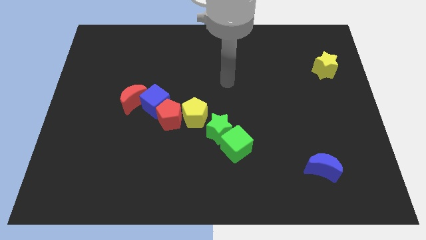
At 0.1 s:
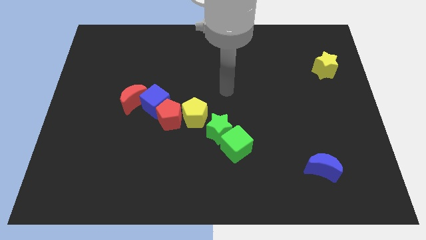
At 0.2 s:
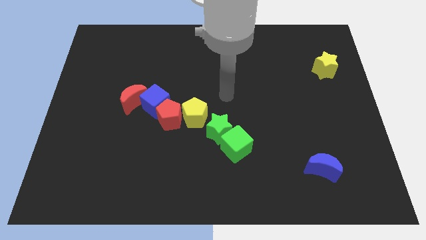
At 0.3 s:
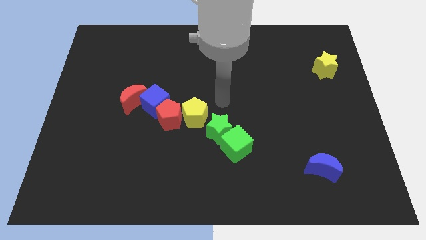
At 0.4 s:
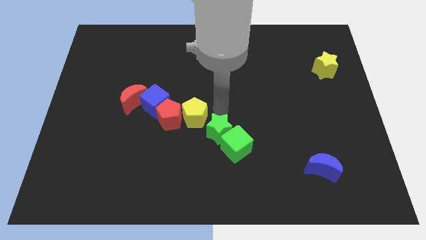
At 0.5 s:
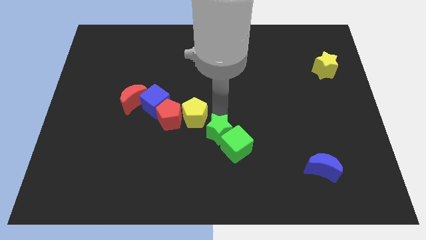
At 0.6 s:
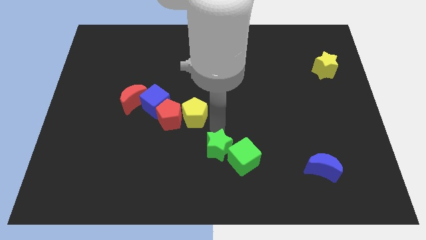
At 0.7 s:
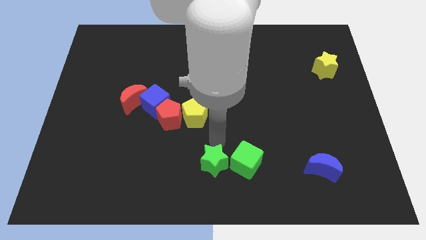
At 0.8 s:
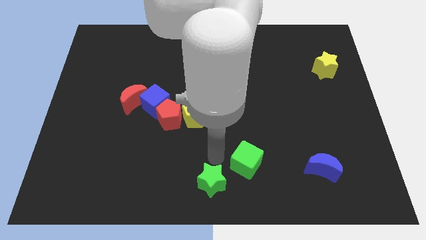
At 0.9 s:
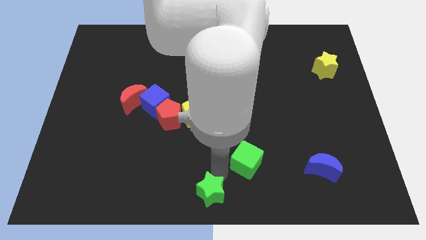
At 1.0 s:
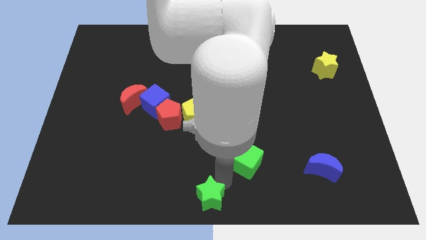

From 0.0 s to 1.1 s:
pull the green cube apart from the green star

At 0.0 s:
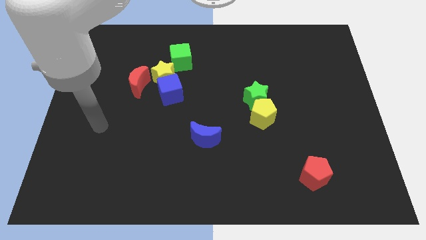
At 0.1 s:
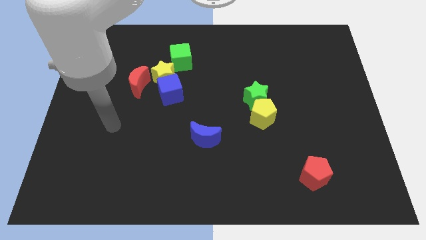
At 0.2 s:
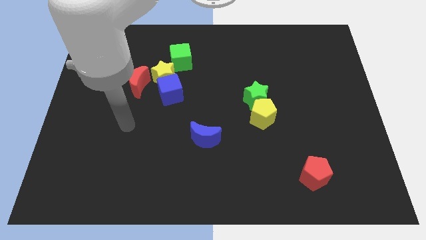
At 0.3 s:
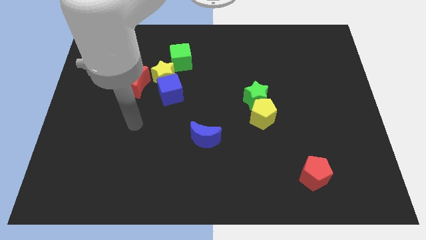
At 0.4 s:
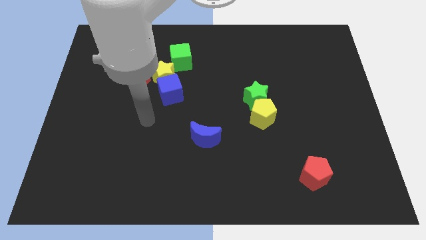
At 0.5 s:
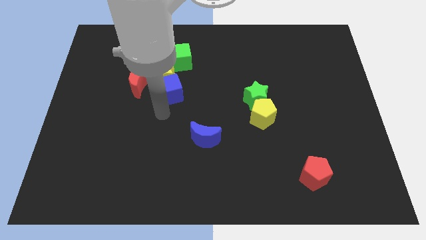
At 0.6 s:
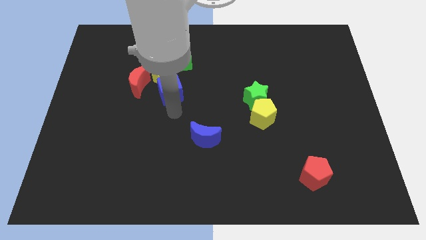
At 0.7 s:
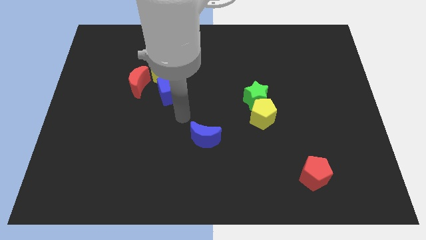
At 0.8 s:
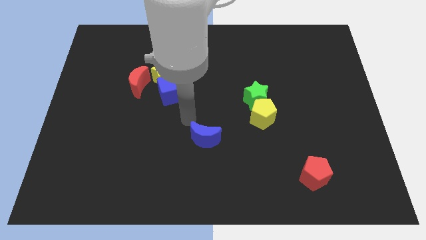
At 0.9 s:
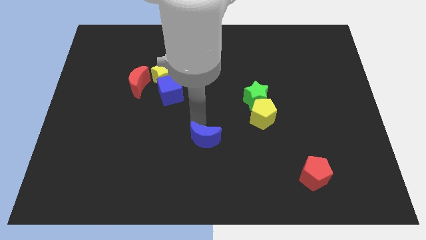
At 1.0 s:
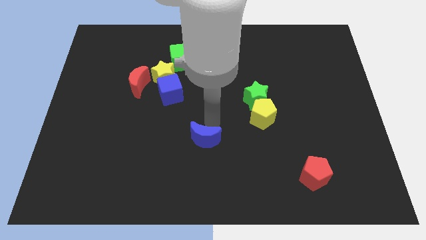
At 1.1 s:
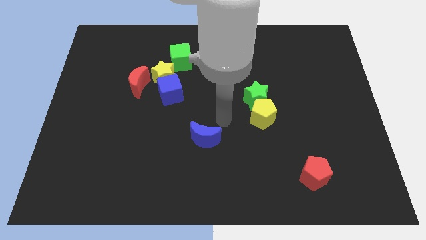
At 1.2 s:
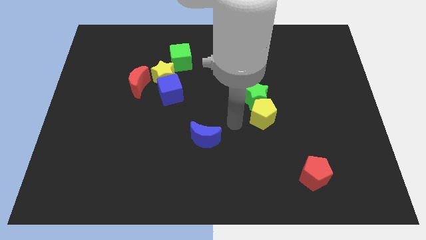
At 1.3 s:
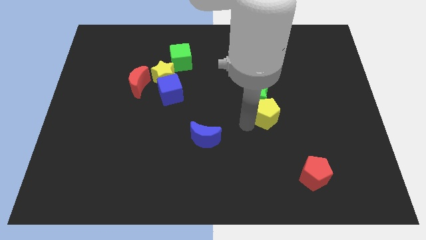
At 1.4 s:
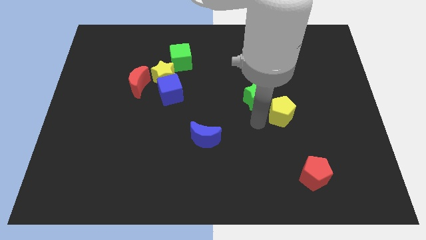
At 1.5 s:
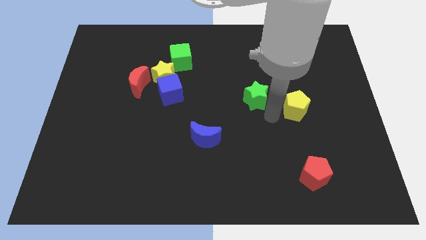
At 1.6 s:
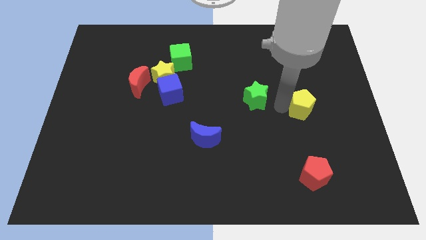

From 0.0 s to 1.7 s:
pull the green star apart from the yellow pentagon

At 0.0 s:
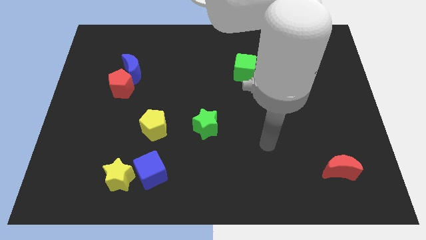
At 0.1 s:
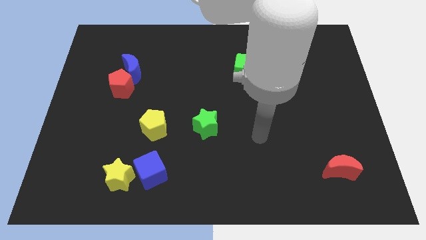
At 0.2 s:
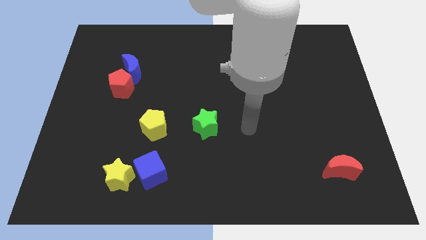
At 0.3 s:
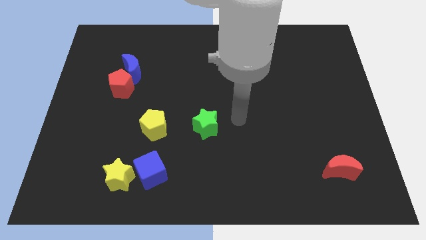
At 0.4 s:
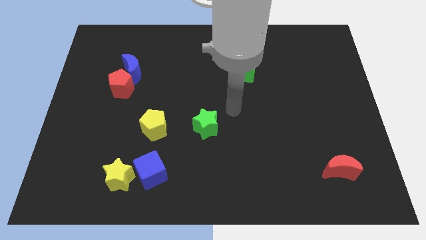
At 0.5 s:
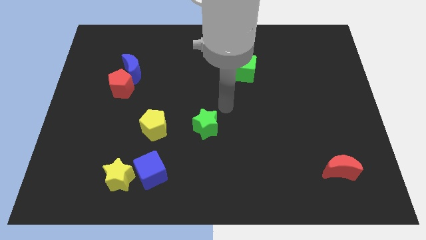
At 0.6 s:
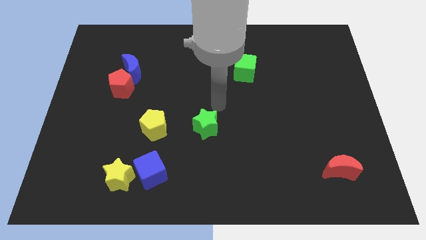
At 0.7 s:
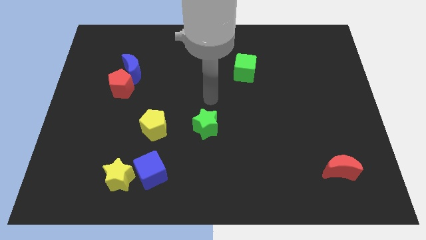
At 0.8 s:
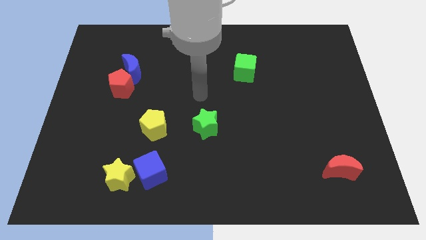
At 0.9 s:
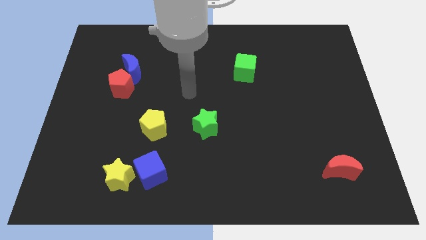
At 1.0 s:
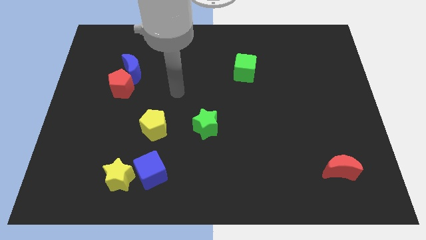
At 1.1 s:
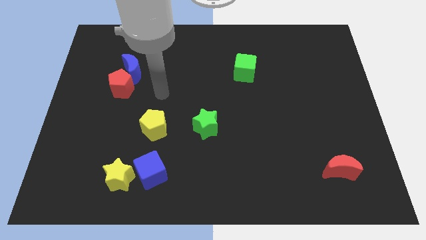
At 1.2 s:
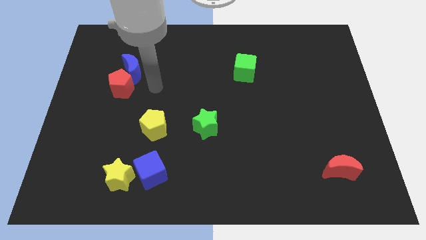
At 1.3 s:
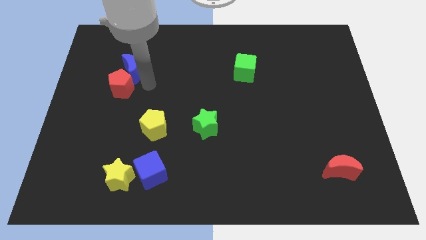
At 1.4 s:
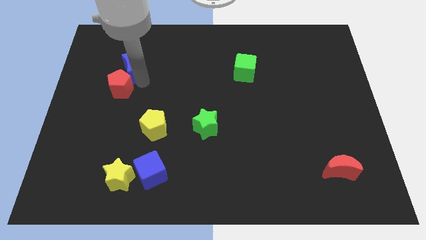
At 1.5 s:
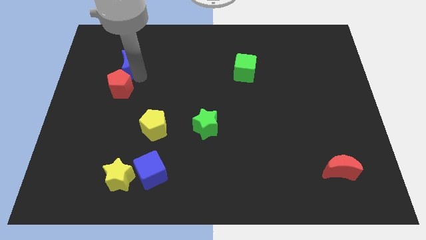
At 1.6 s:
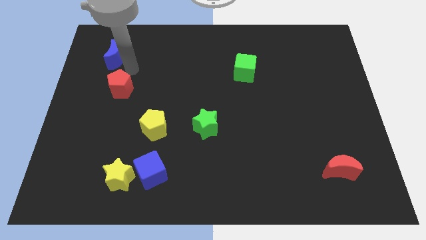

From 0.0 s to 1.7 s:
pull the red pentagon apart from the blue moon

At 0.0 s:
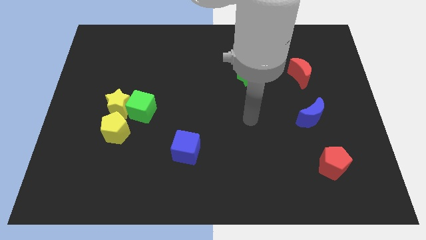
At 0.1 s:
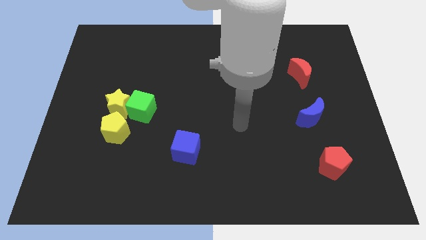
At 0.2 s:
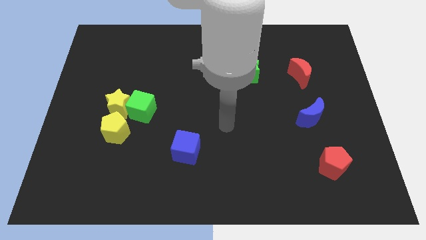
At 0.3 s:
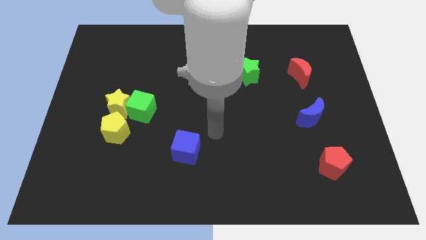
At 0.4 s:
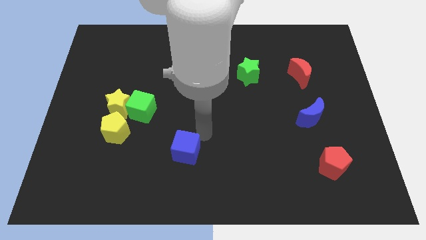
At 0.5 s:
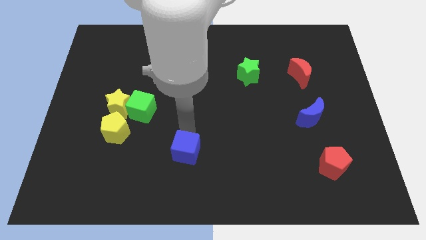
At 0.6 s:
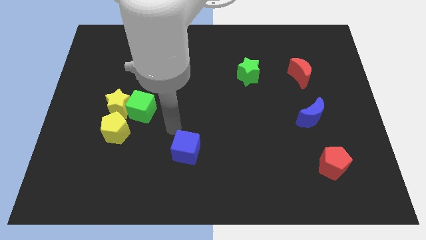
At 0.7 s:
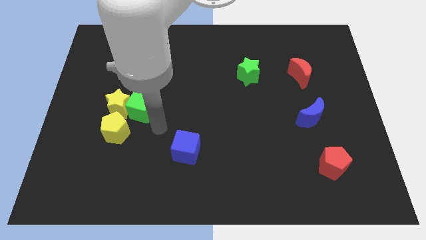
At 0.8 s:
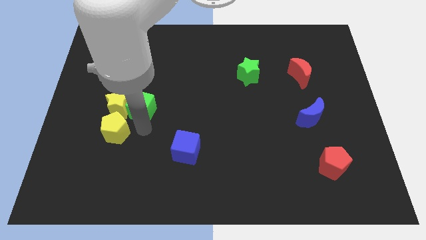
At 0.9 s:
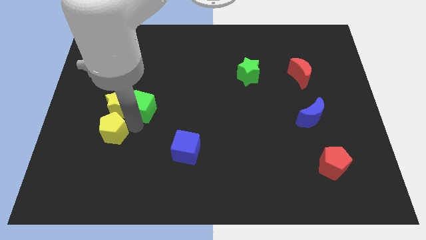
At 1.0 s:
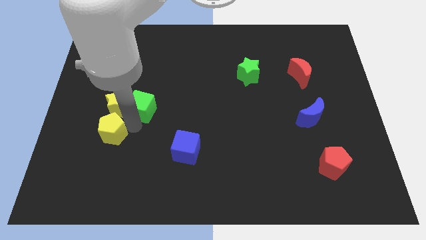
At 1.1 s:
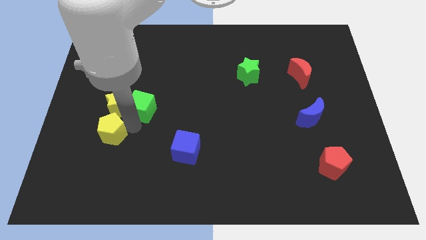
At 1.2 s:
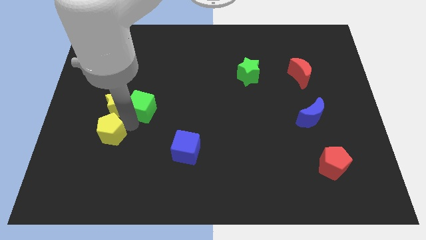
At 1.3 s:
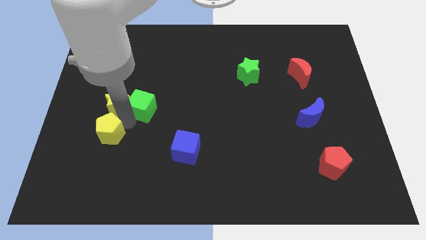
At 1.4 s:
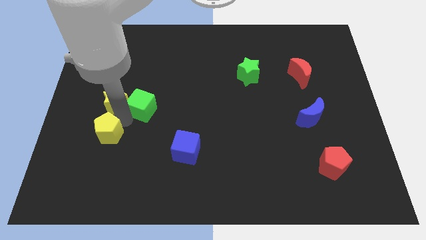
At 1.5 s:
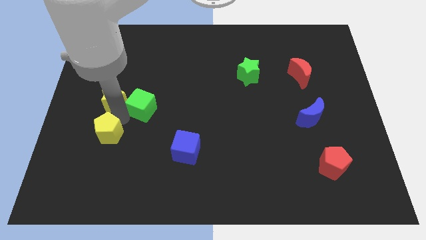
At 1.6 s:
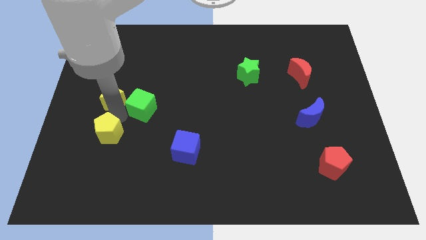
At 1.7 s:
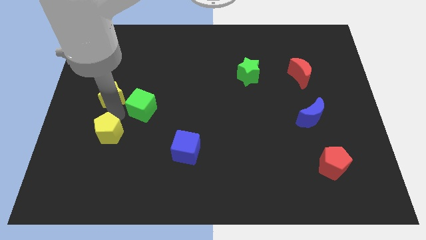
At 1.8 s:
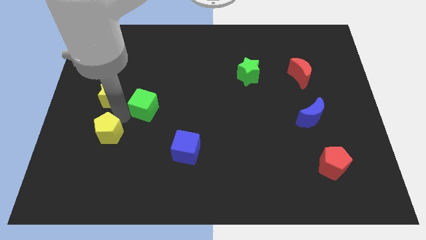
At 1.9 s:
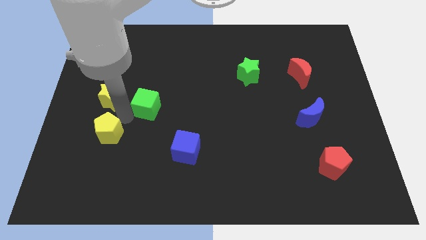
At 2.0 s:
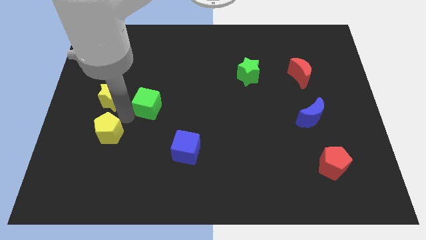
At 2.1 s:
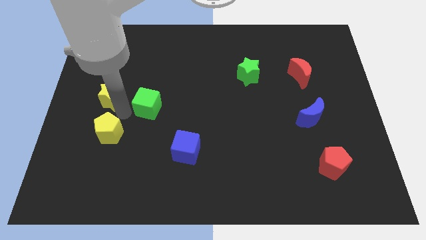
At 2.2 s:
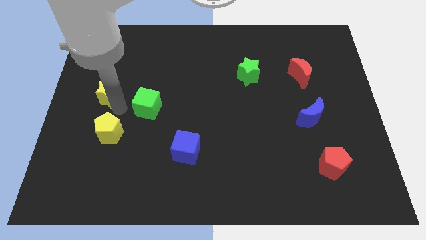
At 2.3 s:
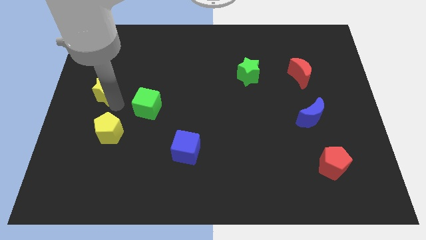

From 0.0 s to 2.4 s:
pull the yellow star apart from the green cube and yellow pentagon

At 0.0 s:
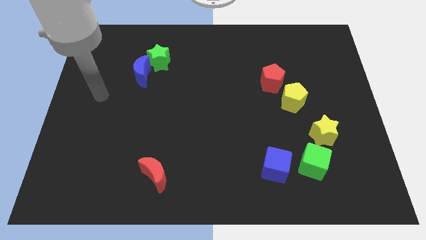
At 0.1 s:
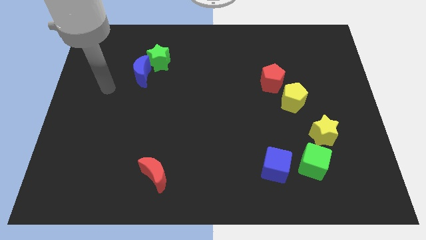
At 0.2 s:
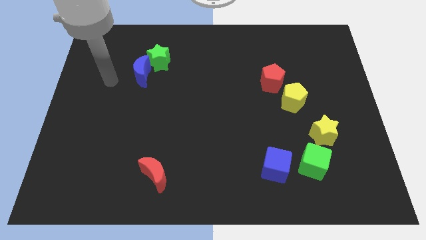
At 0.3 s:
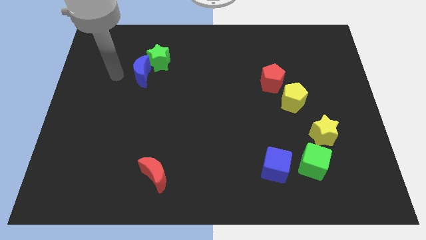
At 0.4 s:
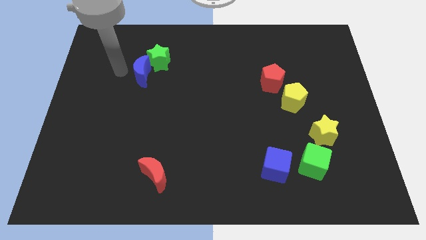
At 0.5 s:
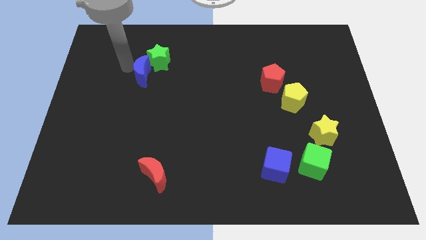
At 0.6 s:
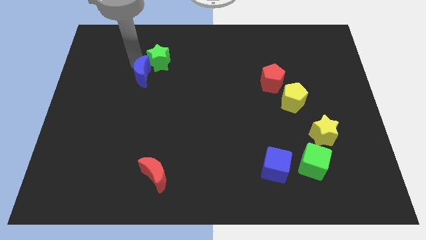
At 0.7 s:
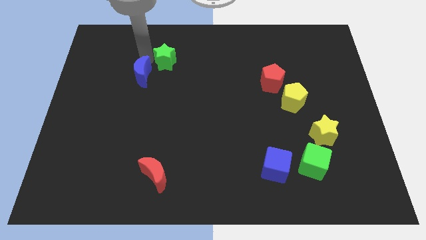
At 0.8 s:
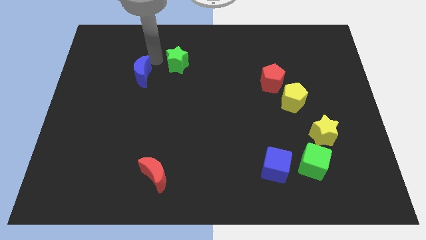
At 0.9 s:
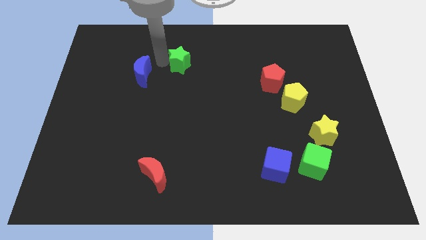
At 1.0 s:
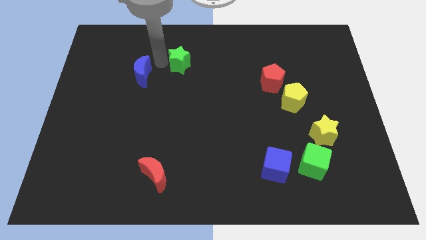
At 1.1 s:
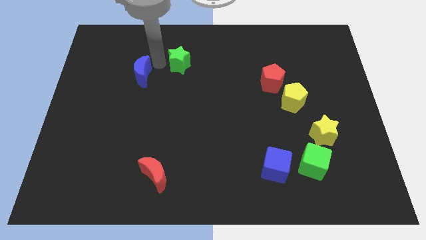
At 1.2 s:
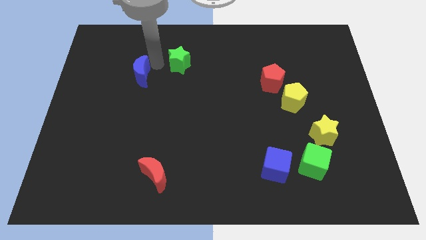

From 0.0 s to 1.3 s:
separate the blue moon from the green star

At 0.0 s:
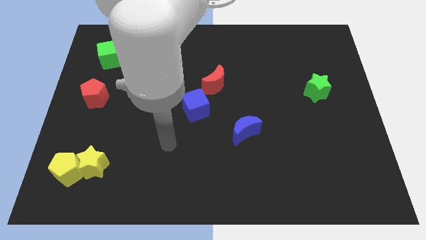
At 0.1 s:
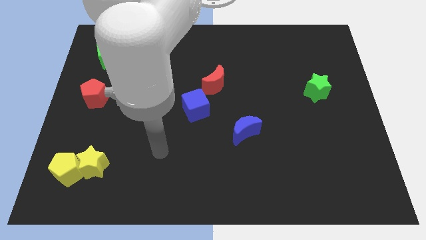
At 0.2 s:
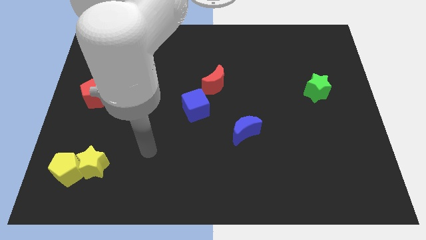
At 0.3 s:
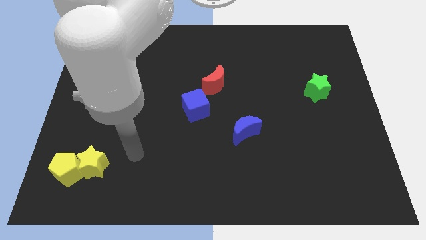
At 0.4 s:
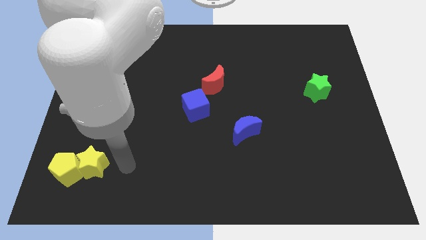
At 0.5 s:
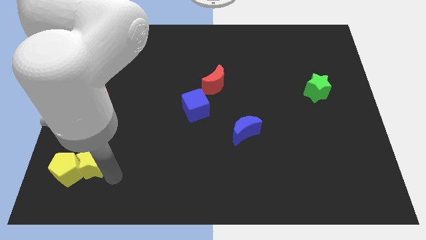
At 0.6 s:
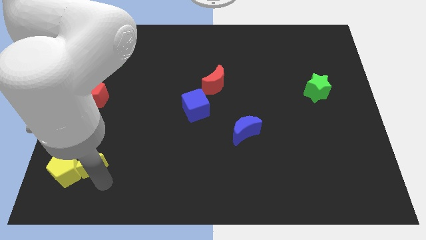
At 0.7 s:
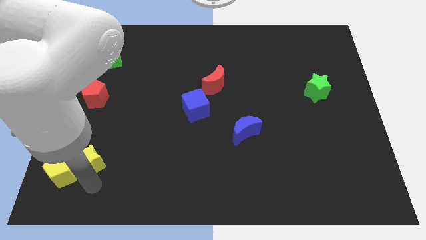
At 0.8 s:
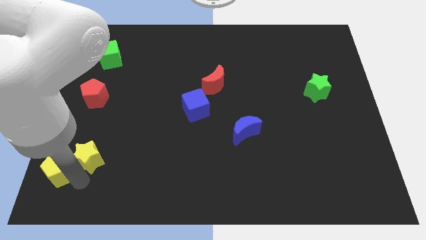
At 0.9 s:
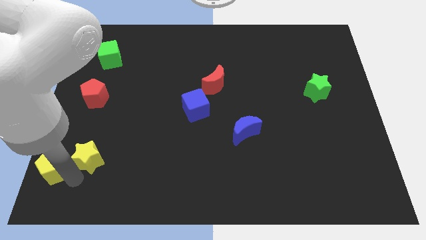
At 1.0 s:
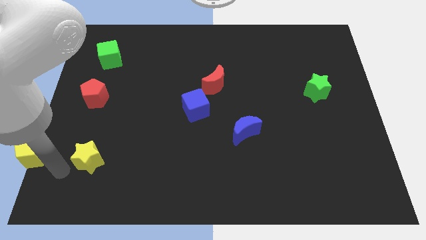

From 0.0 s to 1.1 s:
separate the yellow star from the yellow pentagon
